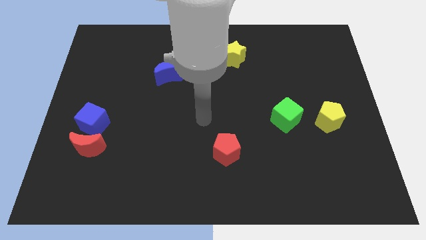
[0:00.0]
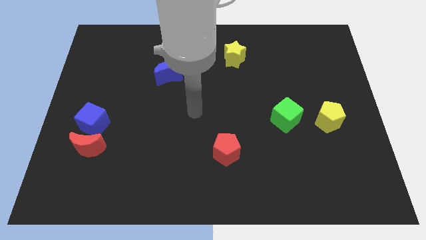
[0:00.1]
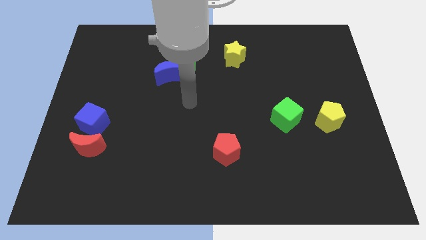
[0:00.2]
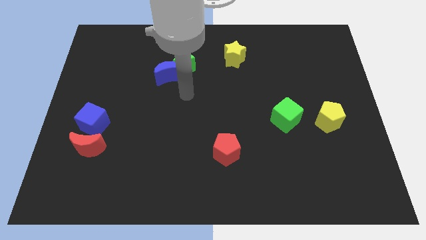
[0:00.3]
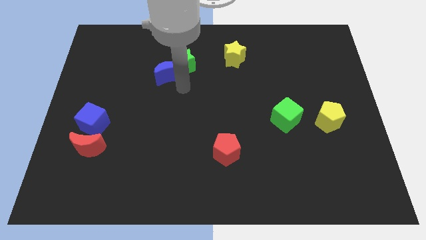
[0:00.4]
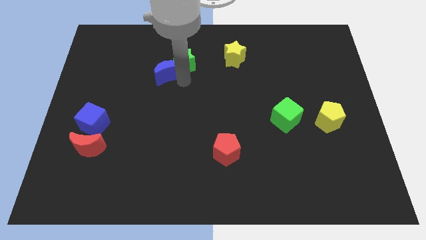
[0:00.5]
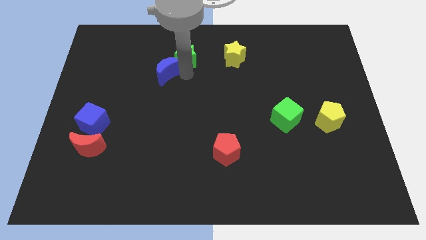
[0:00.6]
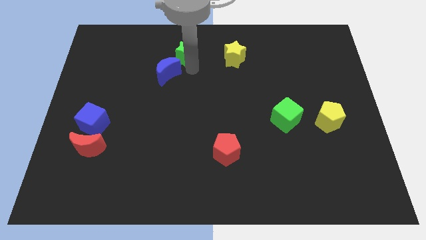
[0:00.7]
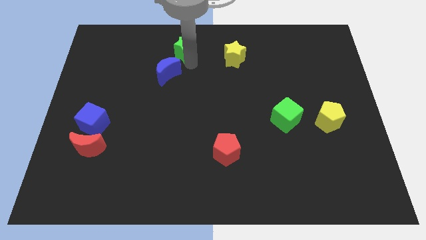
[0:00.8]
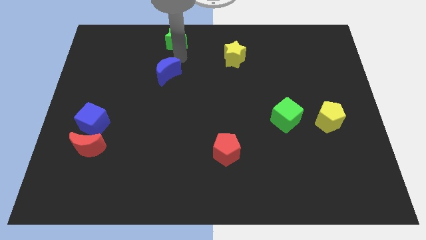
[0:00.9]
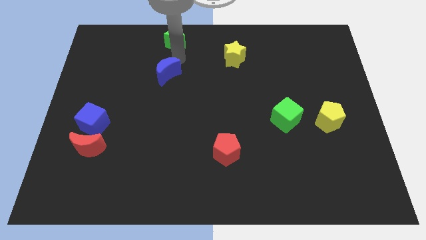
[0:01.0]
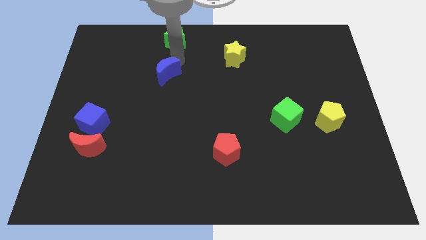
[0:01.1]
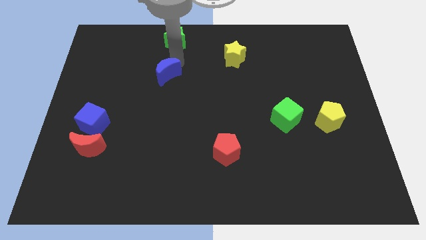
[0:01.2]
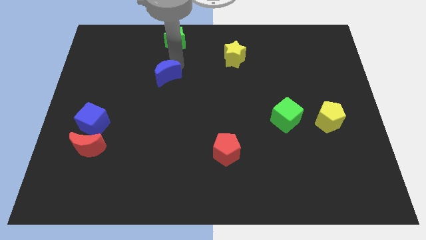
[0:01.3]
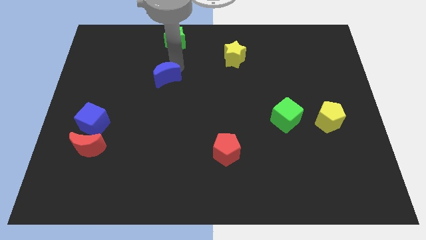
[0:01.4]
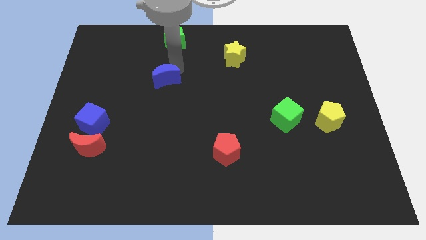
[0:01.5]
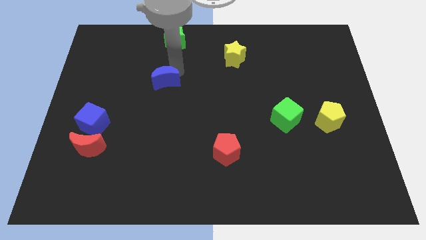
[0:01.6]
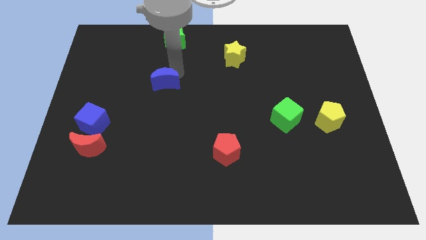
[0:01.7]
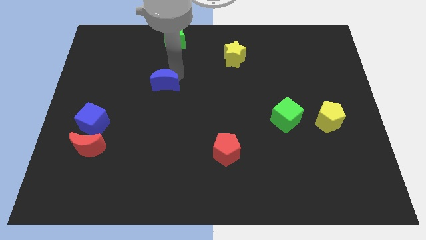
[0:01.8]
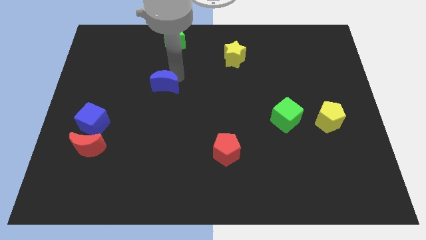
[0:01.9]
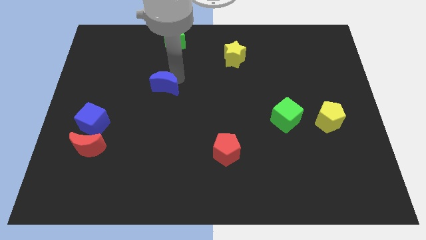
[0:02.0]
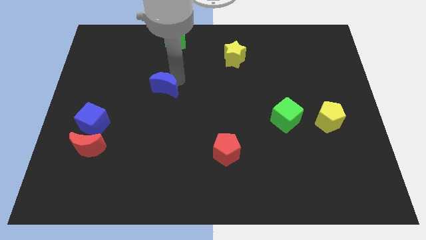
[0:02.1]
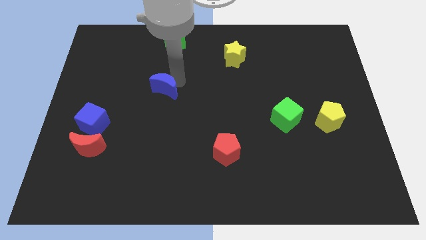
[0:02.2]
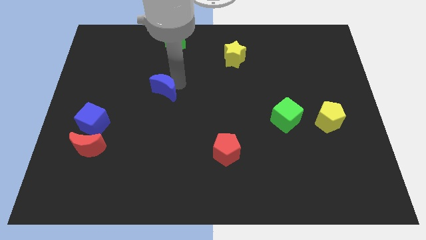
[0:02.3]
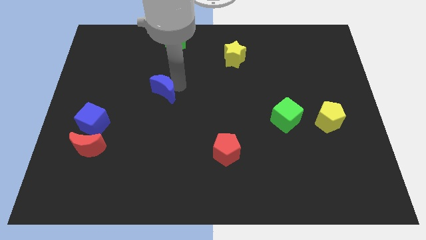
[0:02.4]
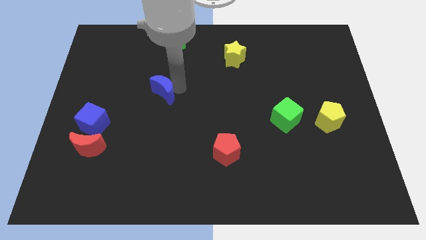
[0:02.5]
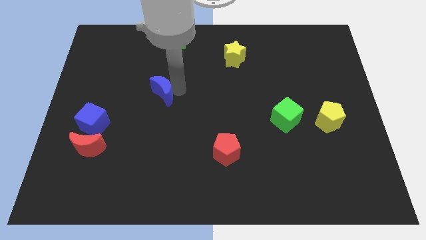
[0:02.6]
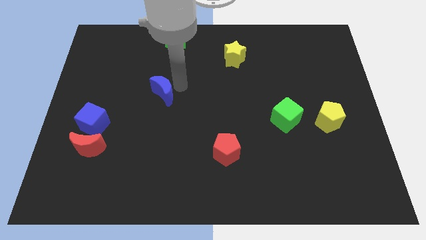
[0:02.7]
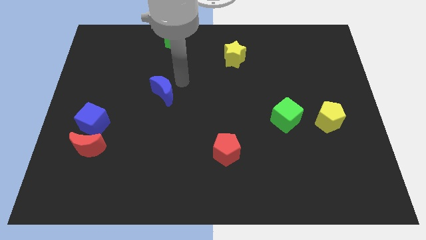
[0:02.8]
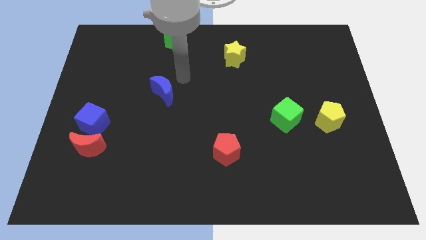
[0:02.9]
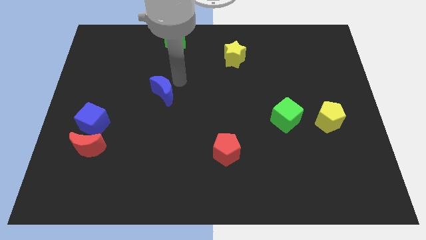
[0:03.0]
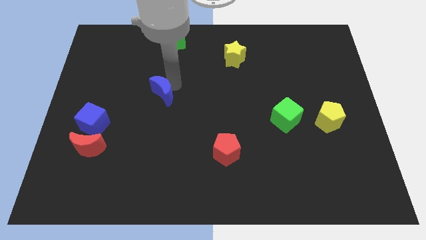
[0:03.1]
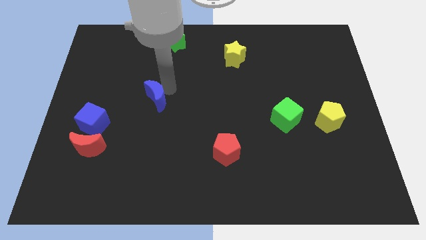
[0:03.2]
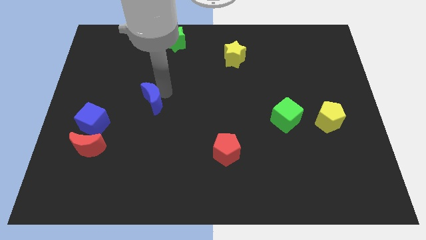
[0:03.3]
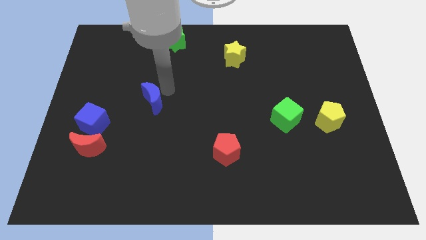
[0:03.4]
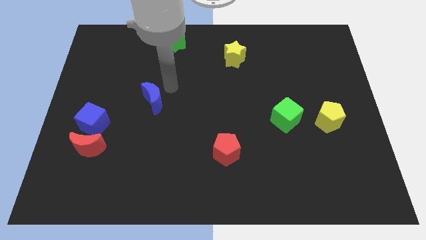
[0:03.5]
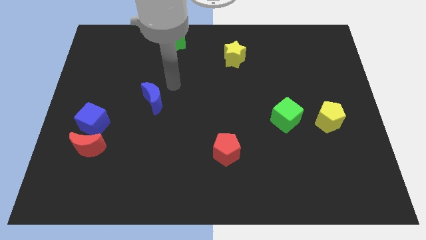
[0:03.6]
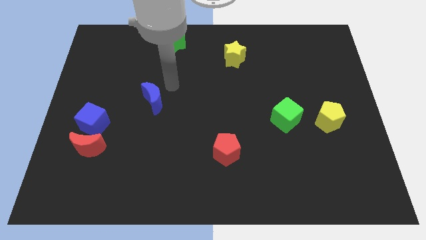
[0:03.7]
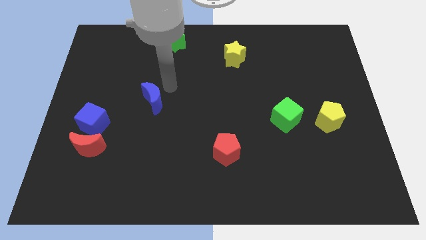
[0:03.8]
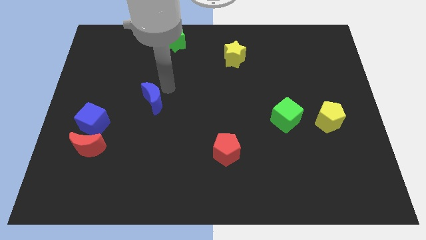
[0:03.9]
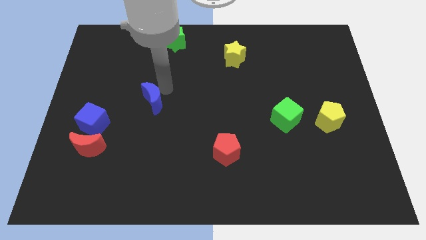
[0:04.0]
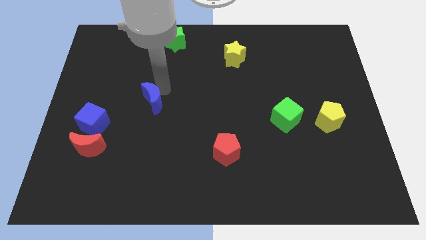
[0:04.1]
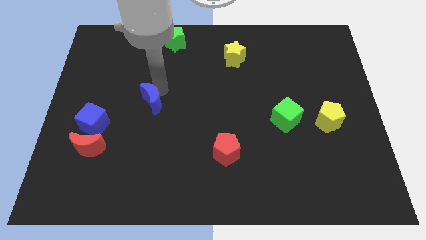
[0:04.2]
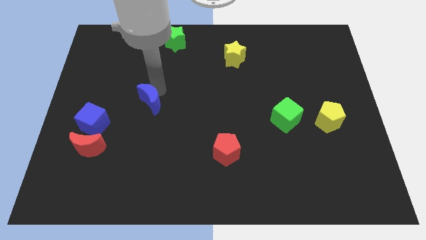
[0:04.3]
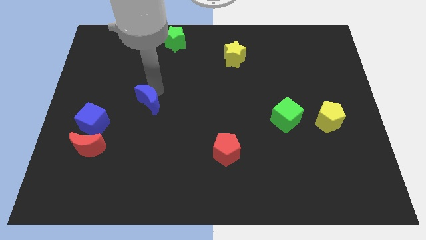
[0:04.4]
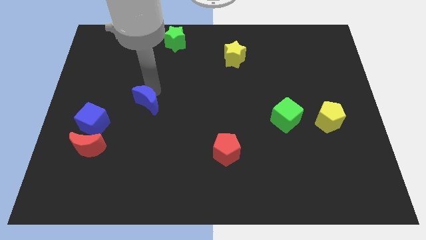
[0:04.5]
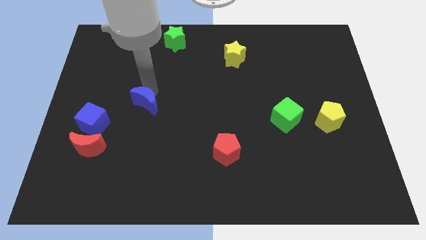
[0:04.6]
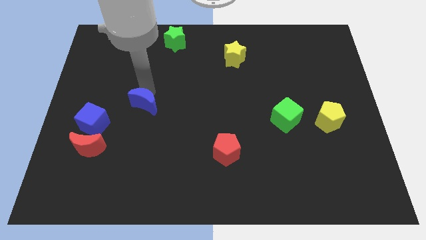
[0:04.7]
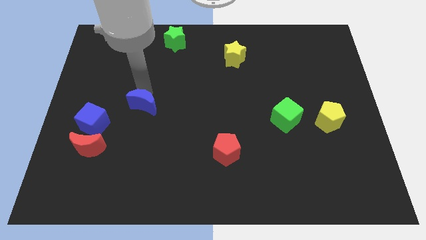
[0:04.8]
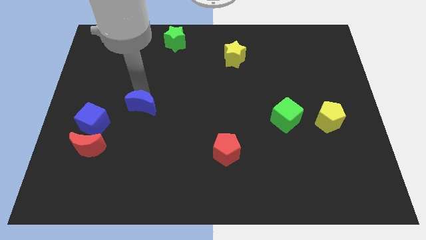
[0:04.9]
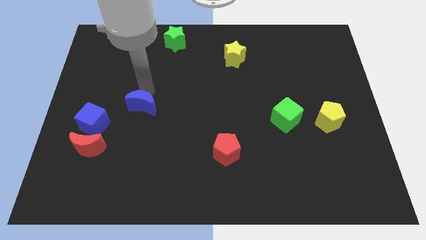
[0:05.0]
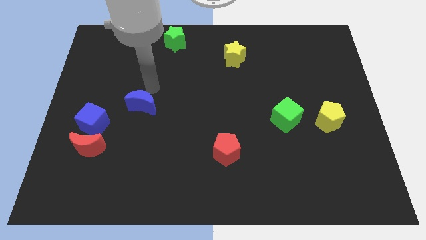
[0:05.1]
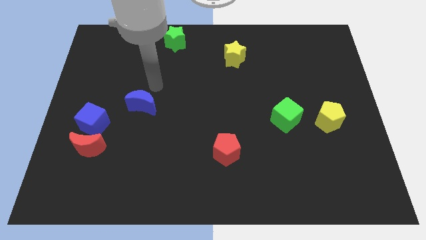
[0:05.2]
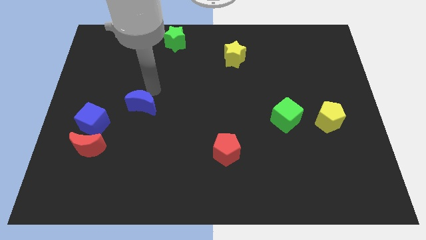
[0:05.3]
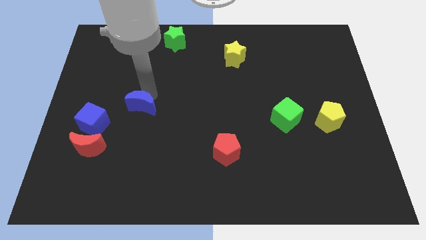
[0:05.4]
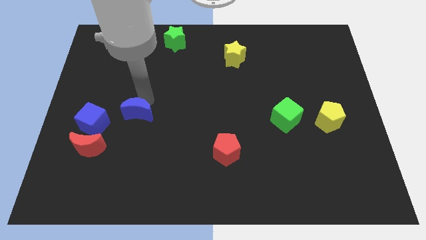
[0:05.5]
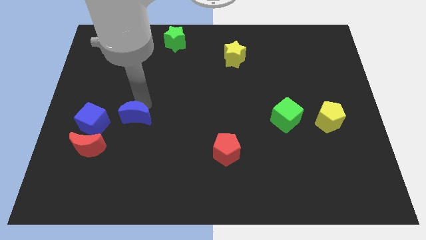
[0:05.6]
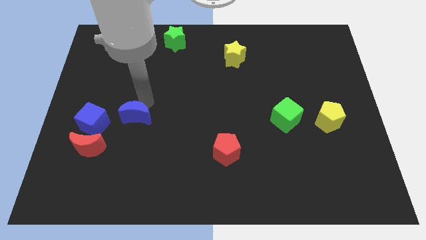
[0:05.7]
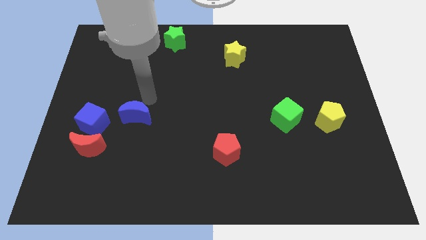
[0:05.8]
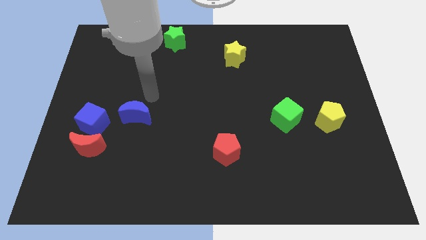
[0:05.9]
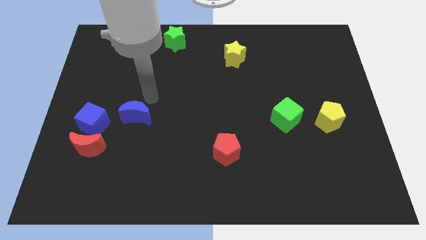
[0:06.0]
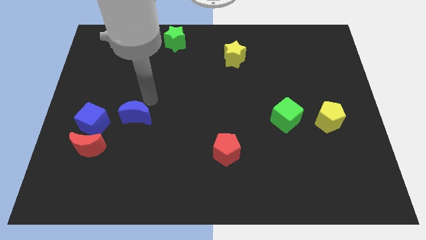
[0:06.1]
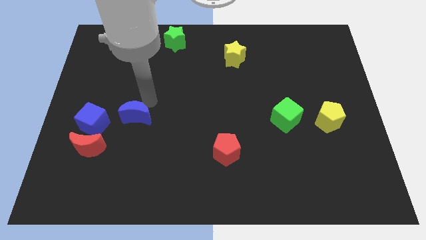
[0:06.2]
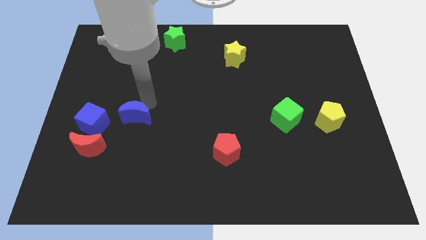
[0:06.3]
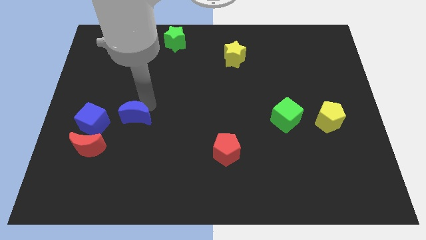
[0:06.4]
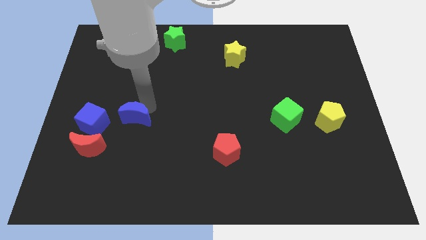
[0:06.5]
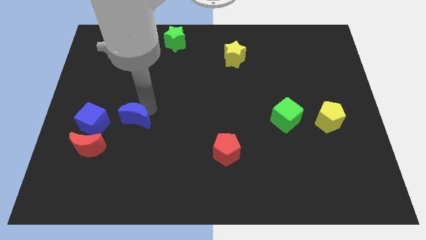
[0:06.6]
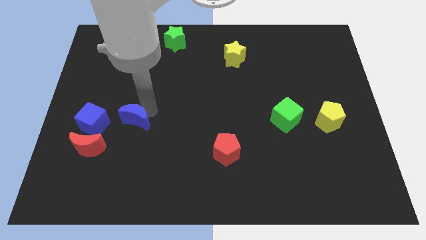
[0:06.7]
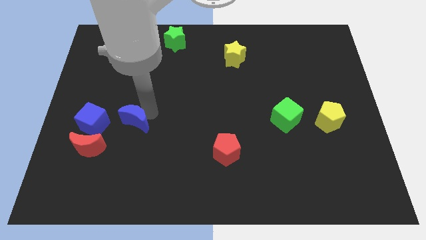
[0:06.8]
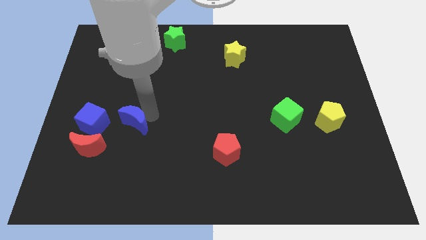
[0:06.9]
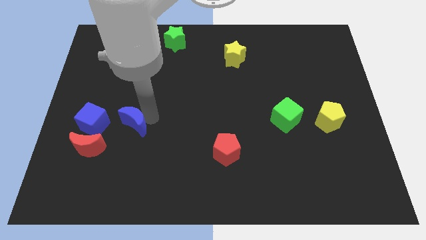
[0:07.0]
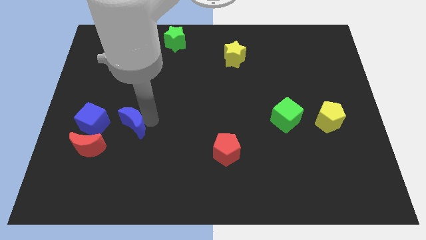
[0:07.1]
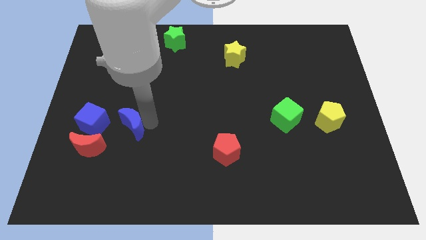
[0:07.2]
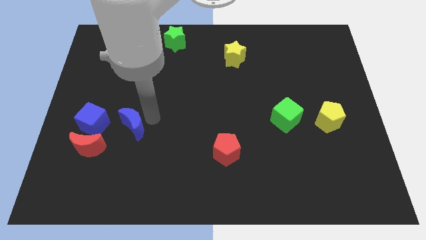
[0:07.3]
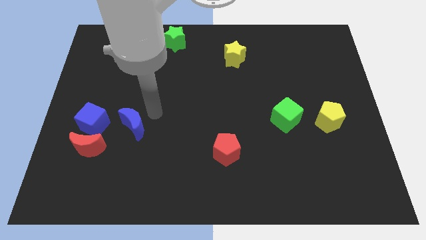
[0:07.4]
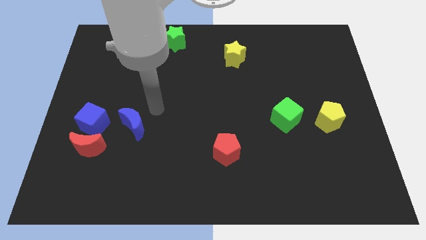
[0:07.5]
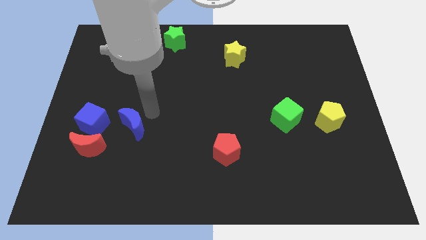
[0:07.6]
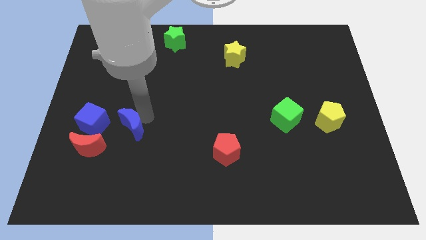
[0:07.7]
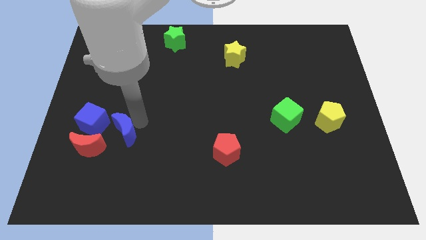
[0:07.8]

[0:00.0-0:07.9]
move the blue moon to the bottom right of the blue cube
